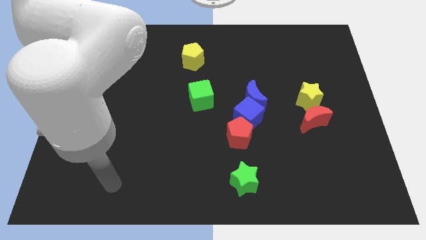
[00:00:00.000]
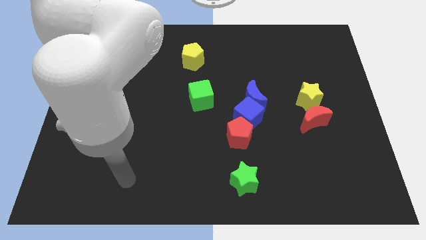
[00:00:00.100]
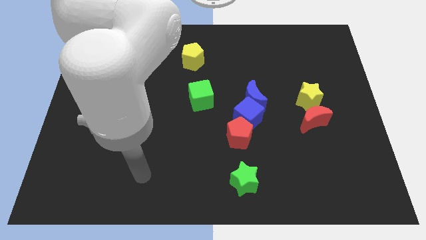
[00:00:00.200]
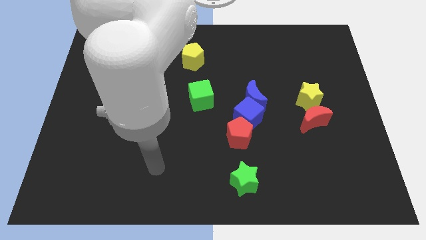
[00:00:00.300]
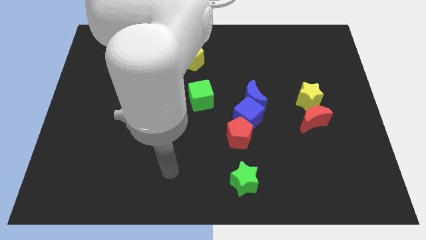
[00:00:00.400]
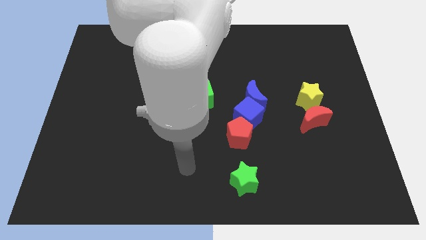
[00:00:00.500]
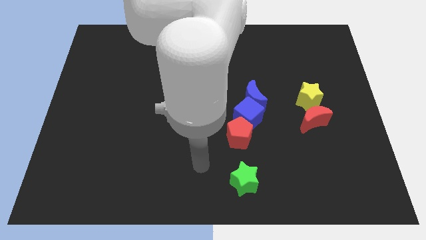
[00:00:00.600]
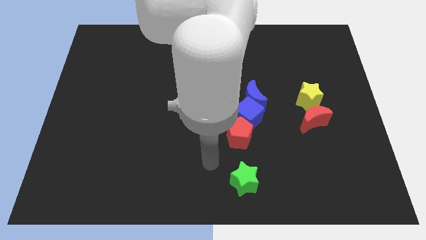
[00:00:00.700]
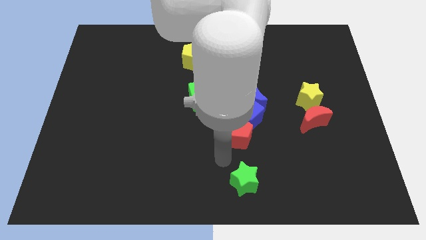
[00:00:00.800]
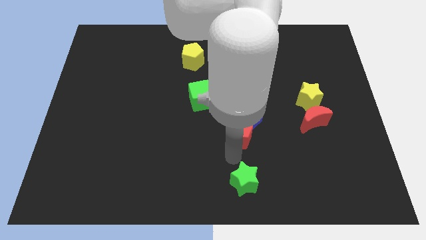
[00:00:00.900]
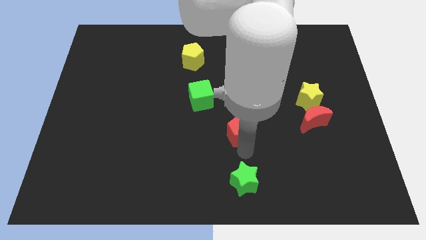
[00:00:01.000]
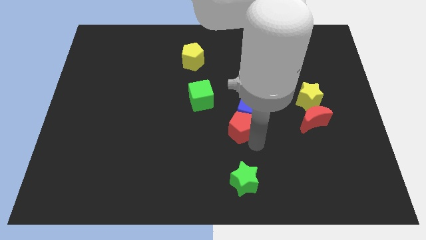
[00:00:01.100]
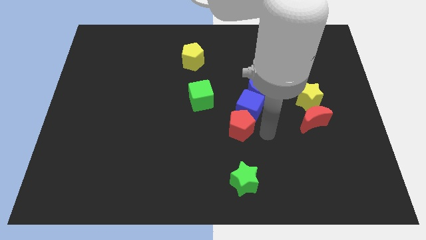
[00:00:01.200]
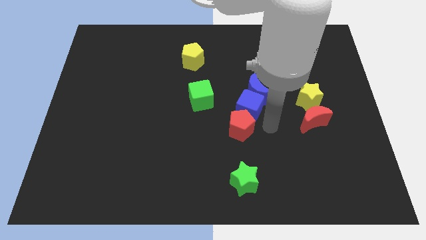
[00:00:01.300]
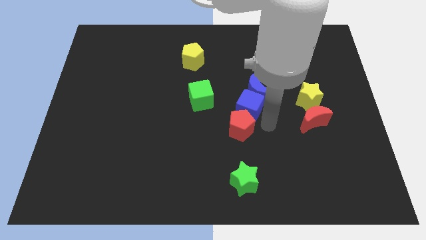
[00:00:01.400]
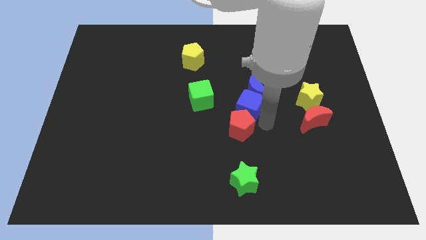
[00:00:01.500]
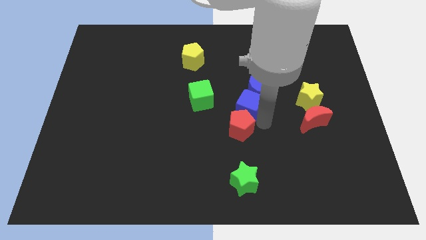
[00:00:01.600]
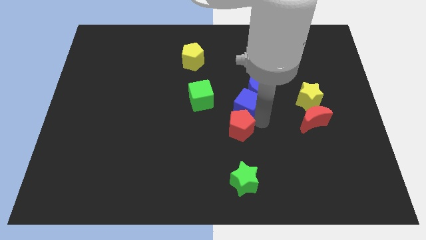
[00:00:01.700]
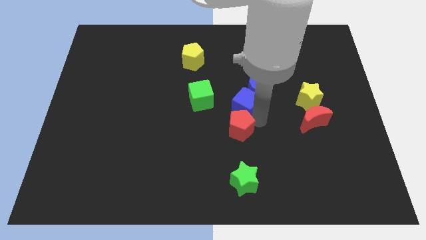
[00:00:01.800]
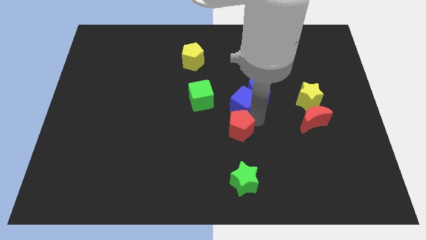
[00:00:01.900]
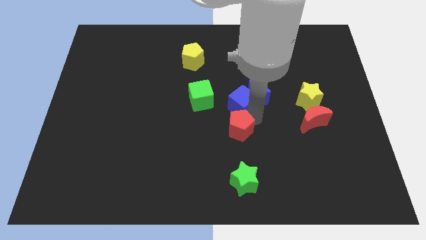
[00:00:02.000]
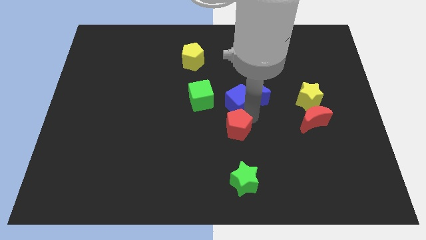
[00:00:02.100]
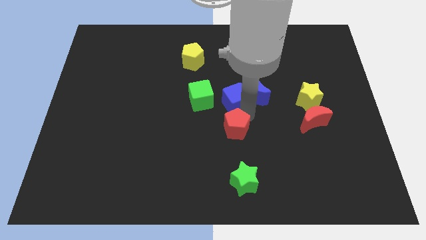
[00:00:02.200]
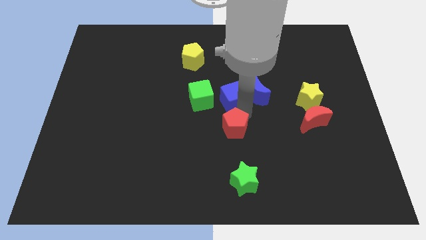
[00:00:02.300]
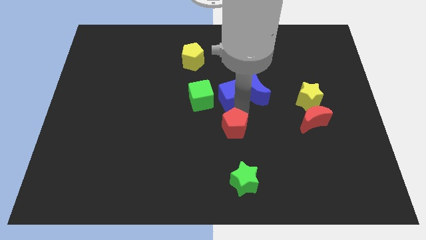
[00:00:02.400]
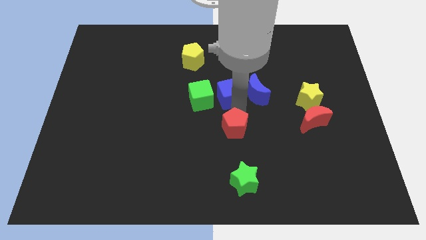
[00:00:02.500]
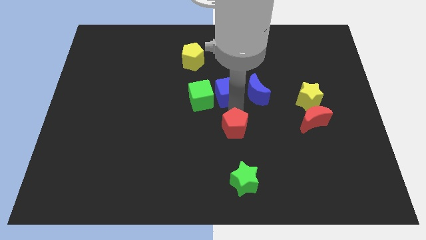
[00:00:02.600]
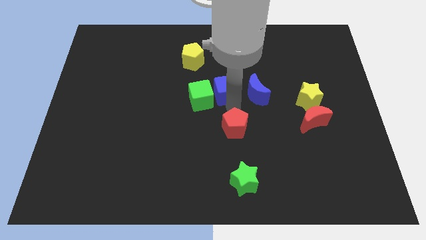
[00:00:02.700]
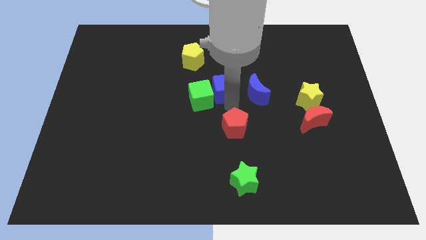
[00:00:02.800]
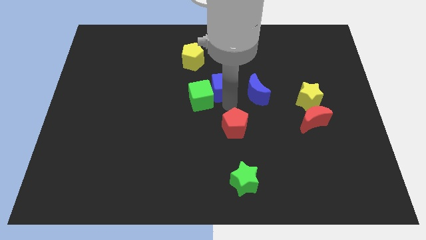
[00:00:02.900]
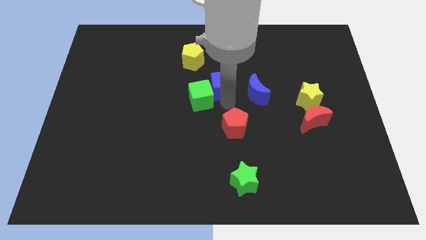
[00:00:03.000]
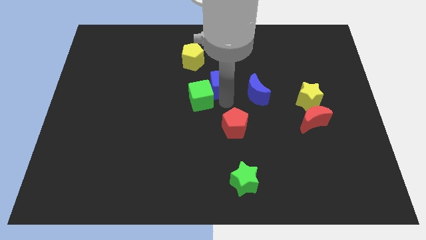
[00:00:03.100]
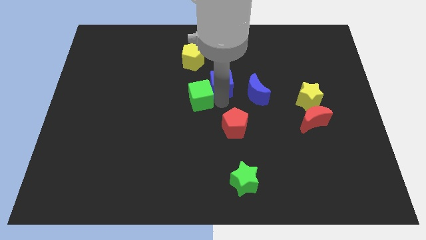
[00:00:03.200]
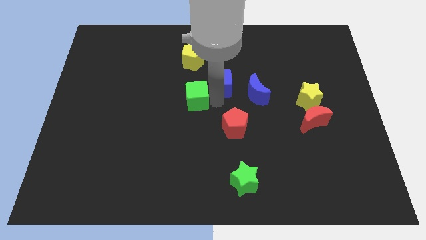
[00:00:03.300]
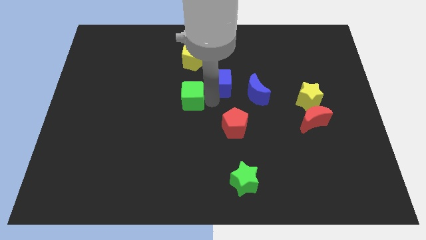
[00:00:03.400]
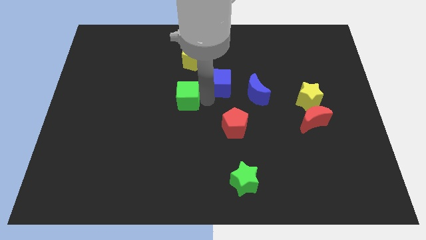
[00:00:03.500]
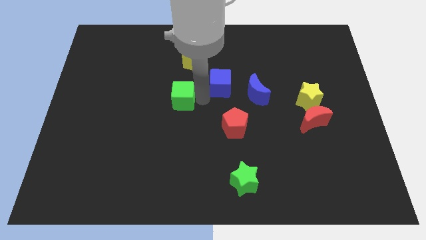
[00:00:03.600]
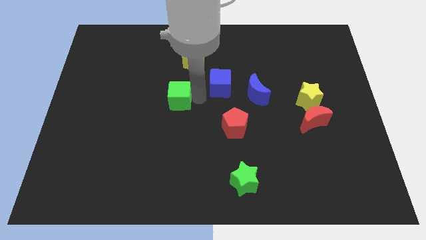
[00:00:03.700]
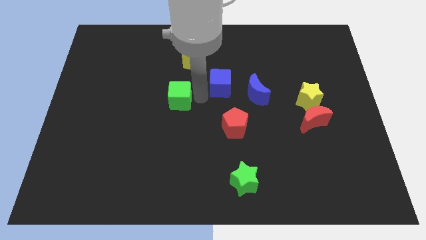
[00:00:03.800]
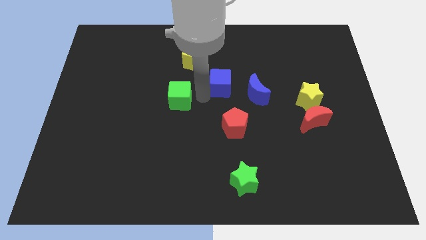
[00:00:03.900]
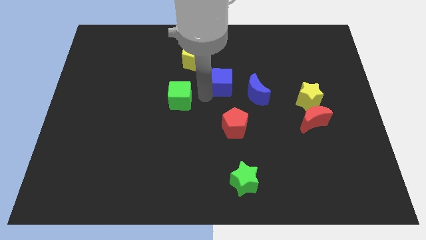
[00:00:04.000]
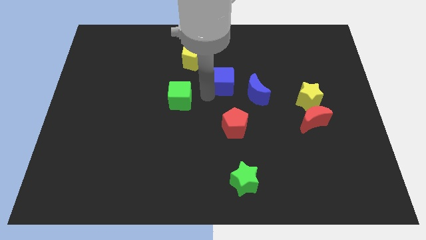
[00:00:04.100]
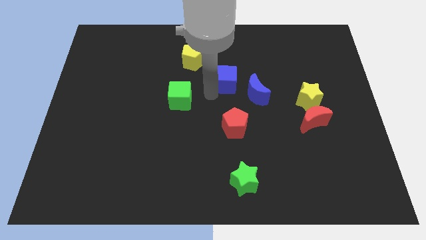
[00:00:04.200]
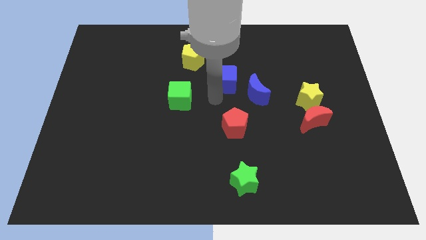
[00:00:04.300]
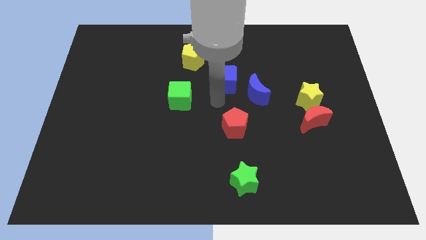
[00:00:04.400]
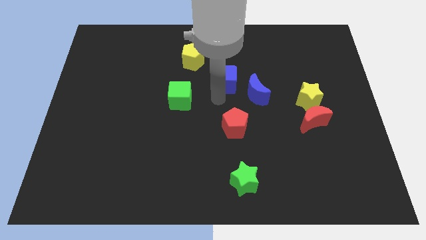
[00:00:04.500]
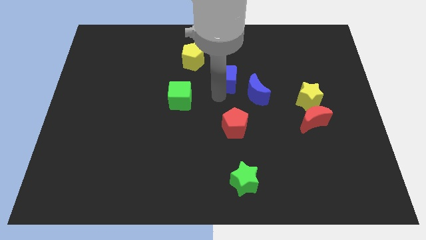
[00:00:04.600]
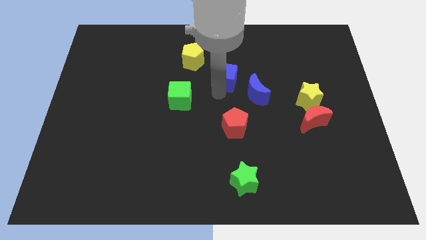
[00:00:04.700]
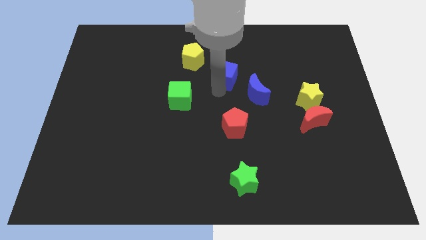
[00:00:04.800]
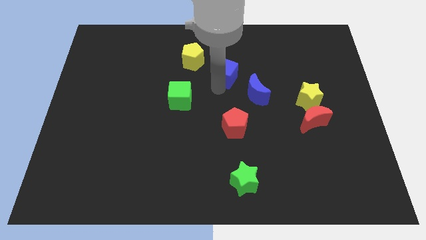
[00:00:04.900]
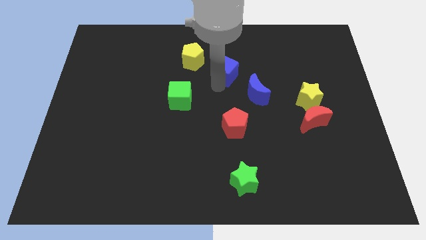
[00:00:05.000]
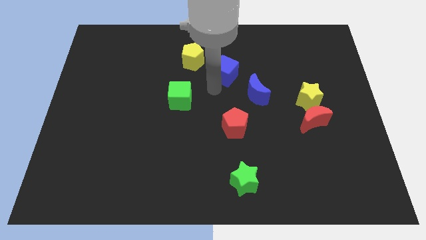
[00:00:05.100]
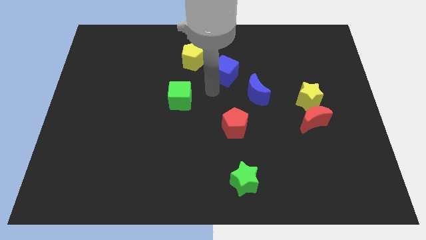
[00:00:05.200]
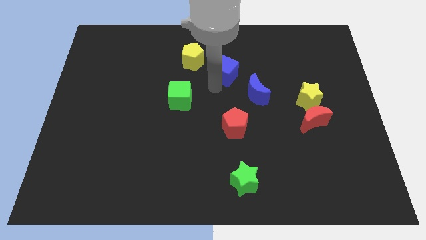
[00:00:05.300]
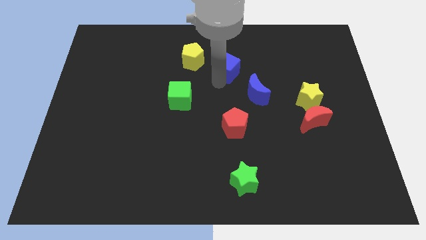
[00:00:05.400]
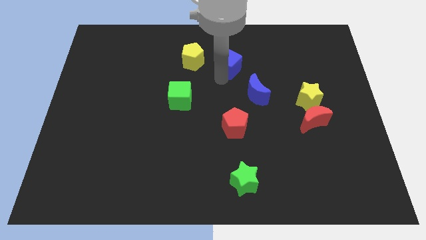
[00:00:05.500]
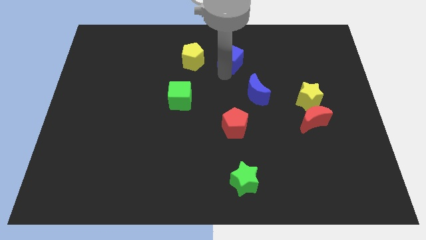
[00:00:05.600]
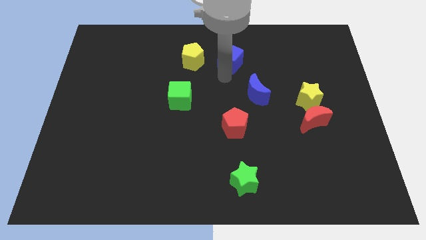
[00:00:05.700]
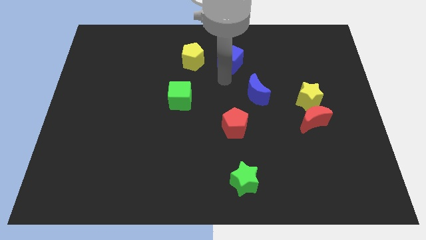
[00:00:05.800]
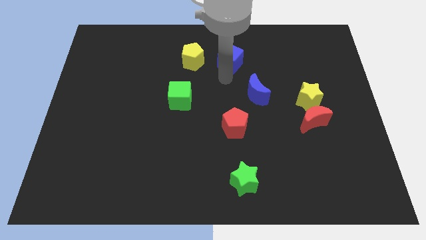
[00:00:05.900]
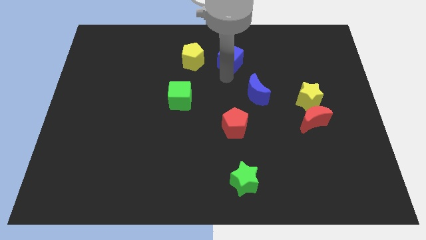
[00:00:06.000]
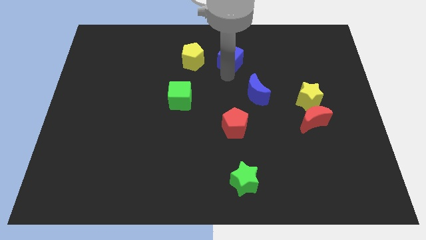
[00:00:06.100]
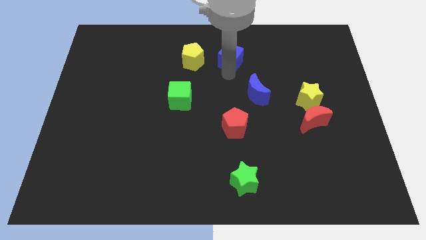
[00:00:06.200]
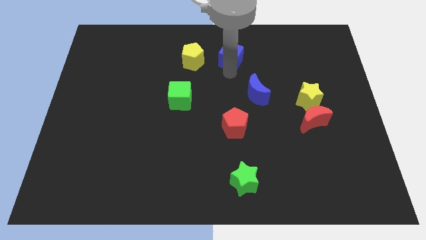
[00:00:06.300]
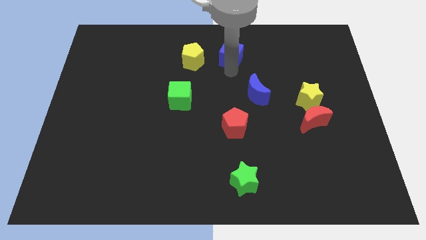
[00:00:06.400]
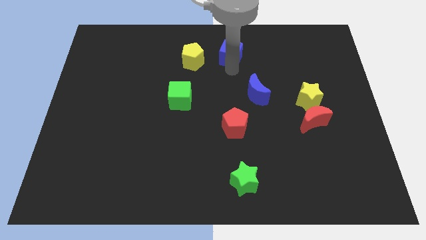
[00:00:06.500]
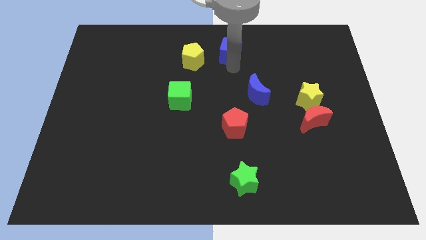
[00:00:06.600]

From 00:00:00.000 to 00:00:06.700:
slide the blue cube to the towards your base
